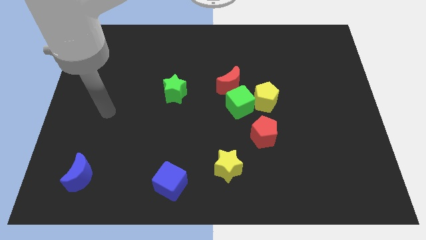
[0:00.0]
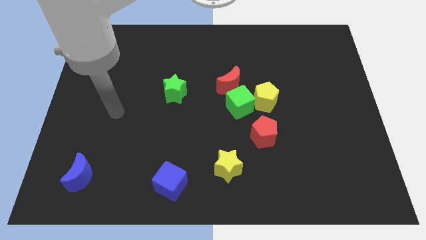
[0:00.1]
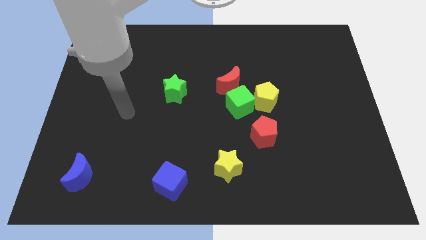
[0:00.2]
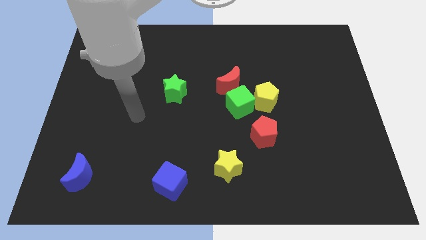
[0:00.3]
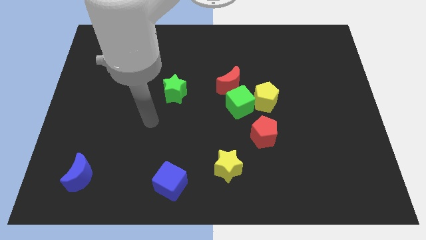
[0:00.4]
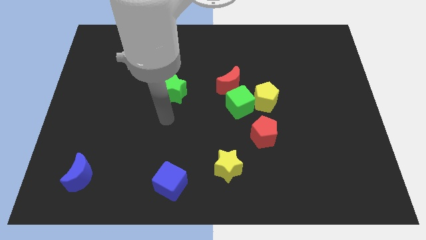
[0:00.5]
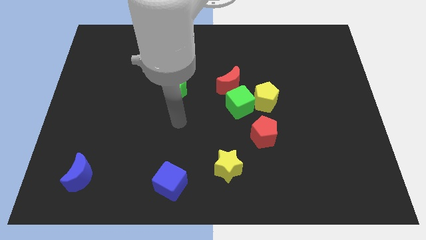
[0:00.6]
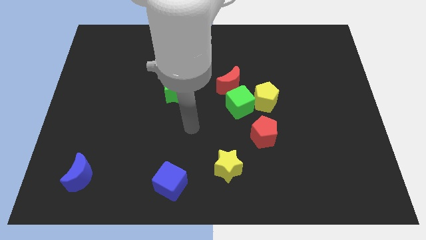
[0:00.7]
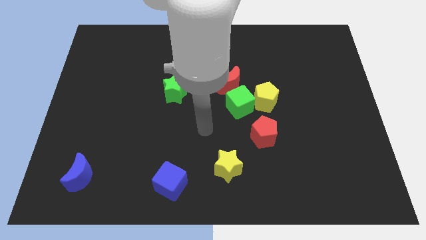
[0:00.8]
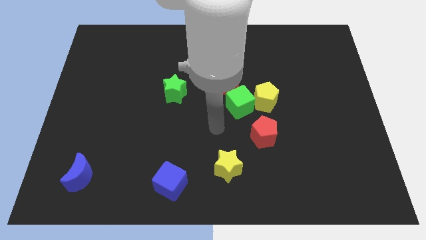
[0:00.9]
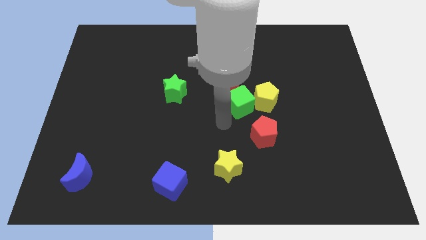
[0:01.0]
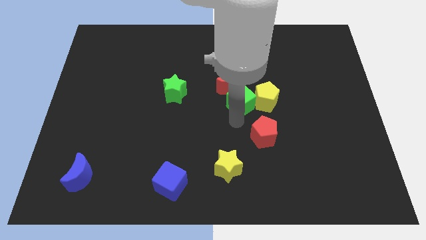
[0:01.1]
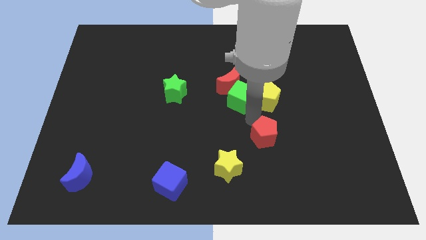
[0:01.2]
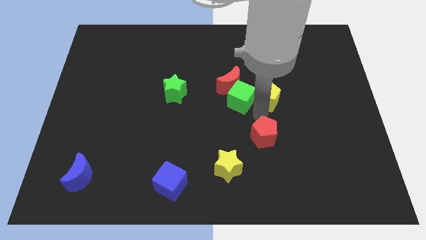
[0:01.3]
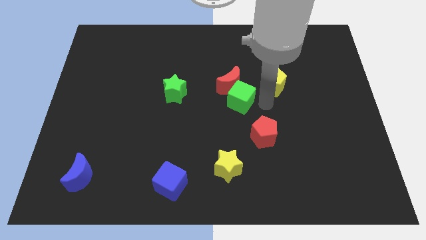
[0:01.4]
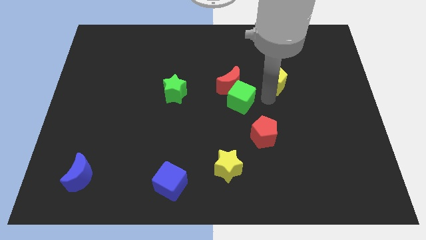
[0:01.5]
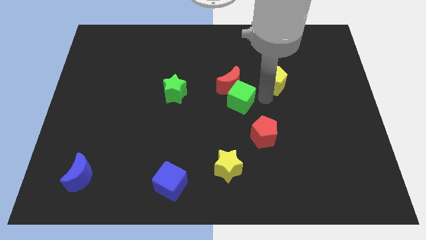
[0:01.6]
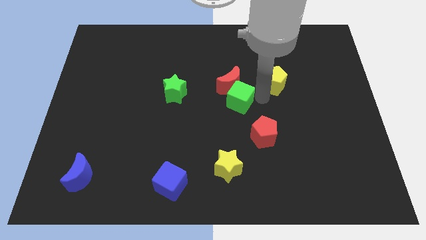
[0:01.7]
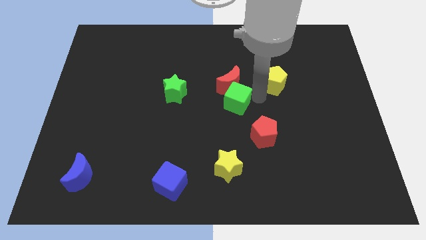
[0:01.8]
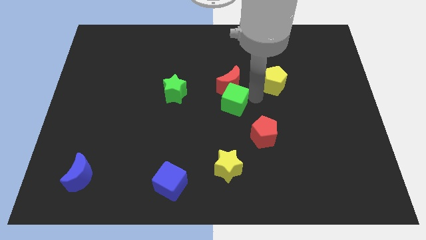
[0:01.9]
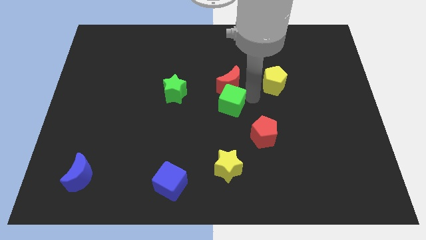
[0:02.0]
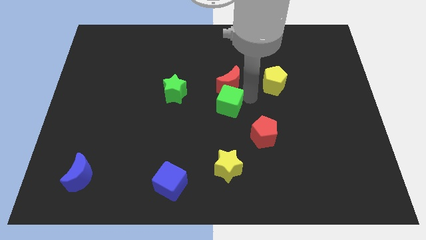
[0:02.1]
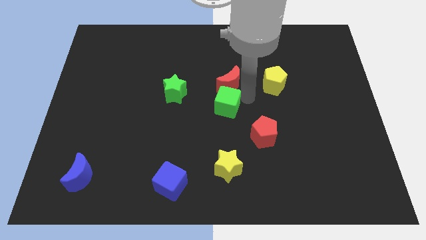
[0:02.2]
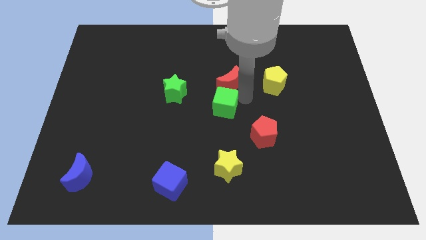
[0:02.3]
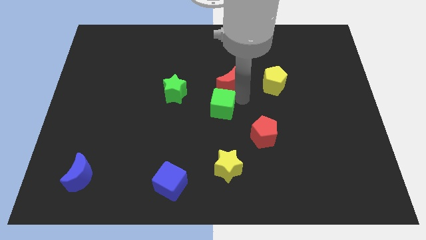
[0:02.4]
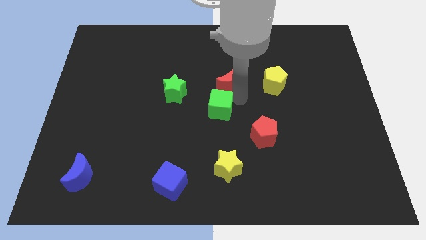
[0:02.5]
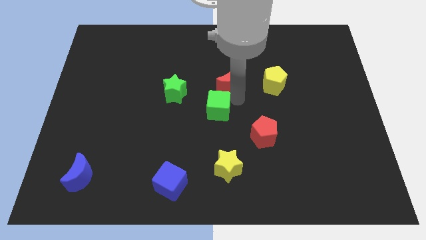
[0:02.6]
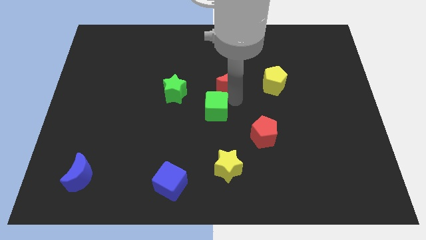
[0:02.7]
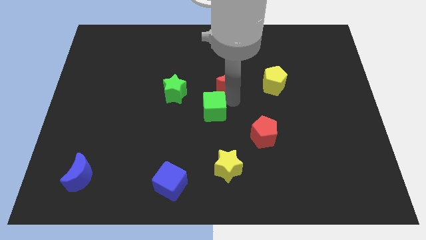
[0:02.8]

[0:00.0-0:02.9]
pull the green cube apart from the yellow pentagon, red moon, and red pentagon

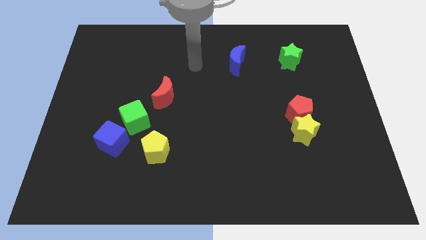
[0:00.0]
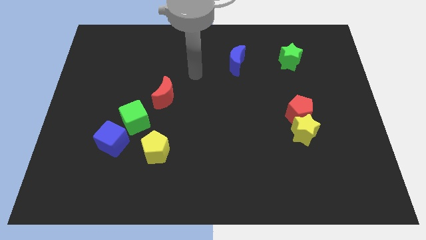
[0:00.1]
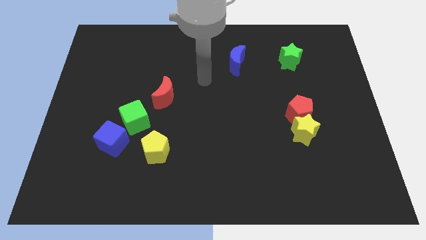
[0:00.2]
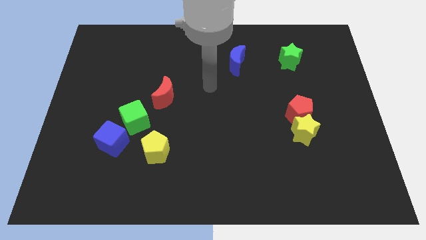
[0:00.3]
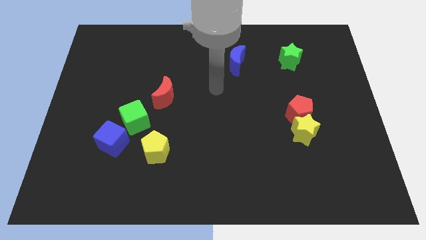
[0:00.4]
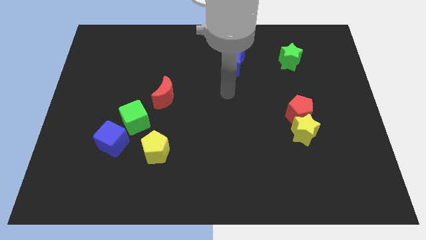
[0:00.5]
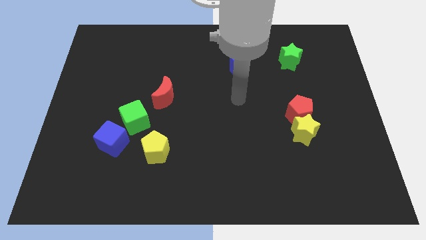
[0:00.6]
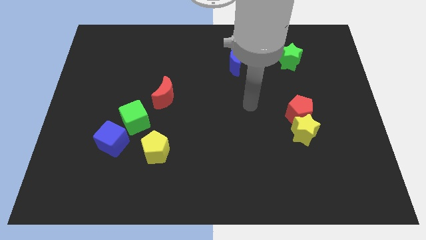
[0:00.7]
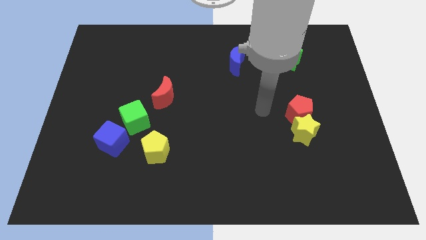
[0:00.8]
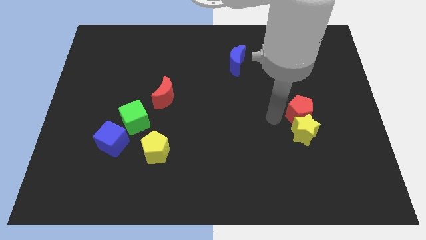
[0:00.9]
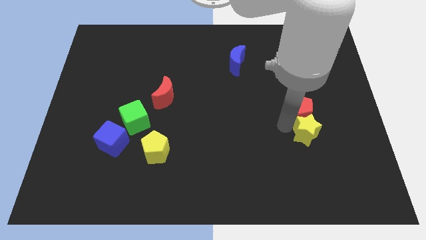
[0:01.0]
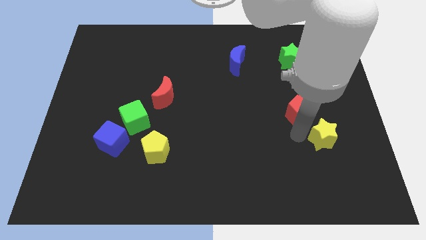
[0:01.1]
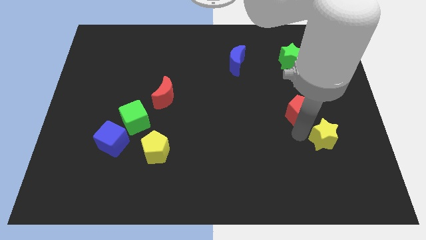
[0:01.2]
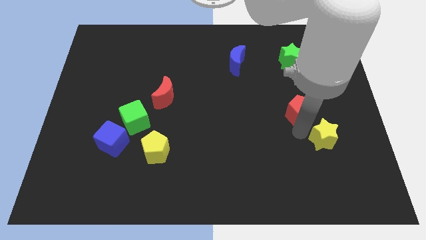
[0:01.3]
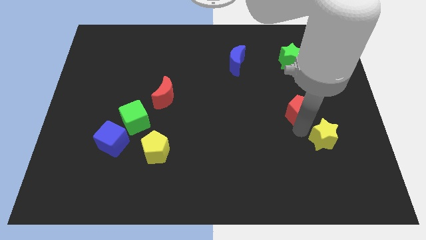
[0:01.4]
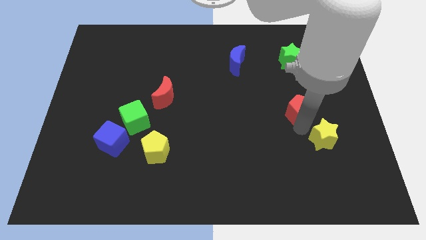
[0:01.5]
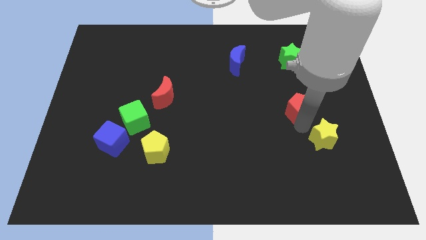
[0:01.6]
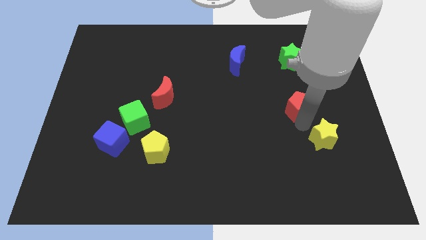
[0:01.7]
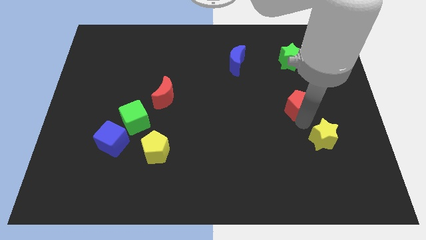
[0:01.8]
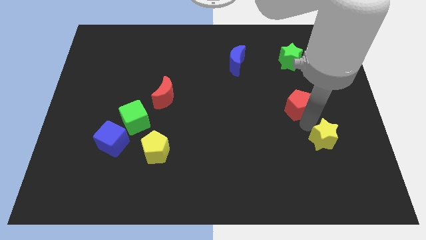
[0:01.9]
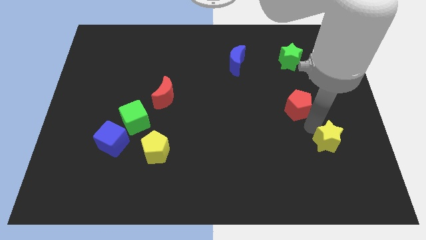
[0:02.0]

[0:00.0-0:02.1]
separate the red pentagon from the yellow star

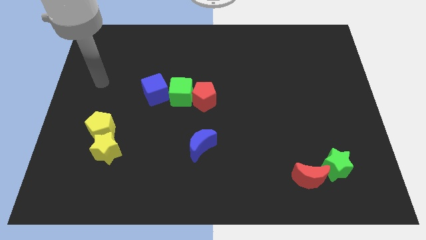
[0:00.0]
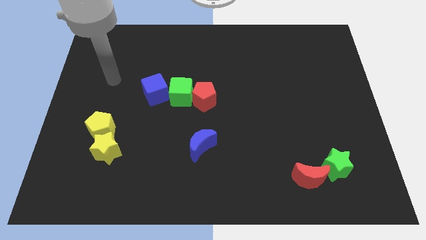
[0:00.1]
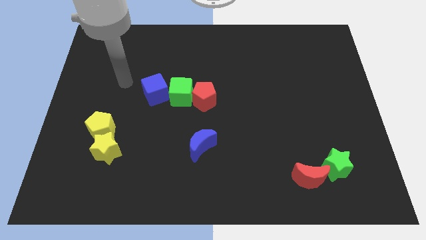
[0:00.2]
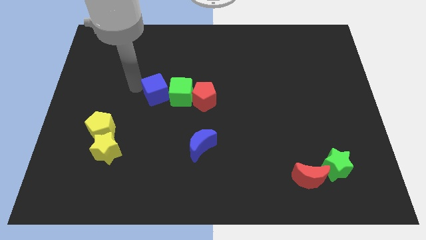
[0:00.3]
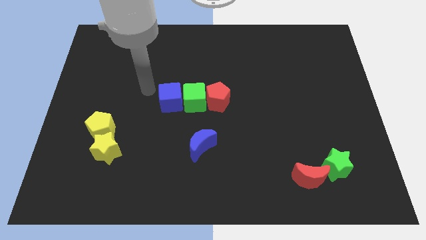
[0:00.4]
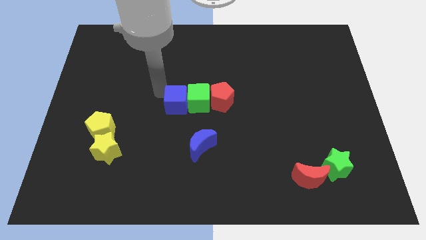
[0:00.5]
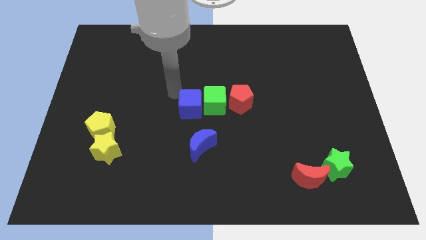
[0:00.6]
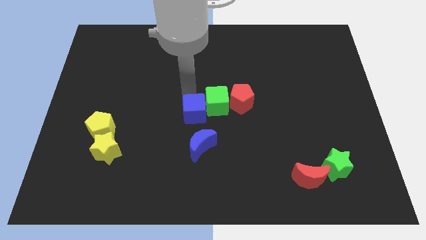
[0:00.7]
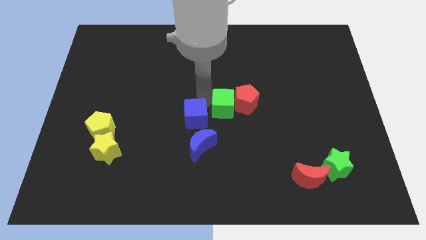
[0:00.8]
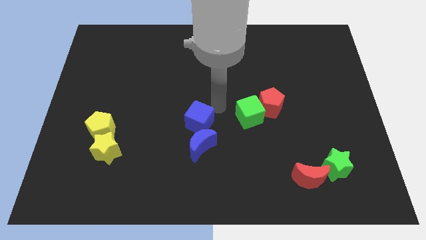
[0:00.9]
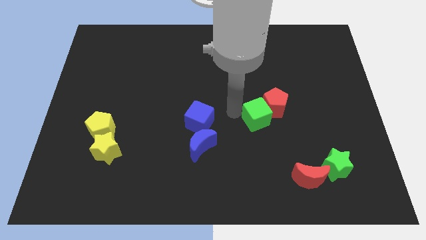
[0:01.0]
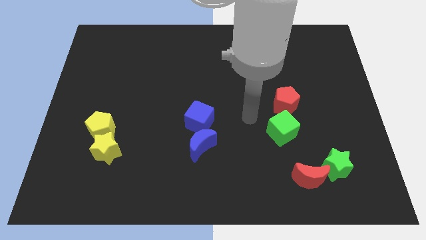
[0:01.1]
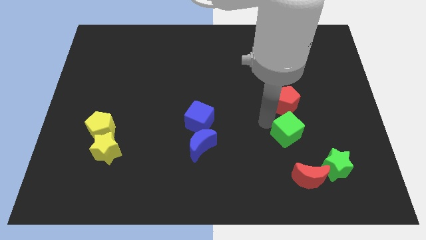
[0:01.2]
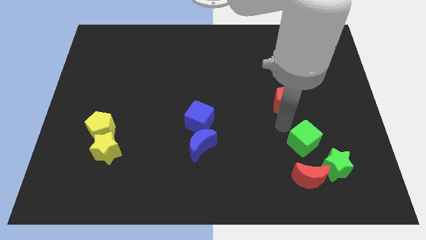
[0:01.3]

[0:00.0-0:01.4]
separate the red pentagon from the green cube

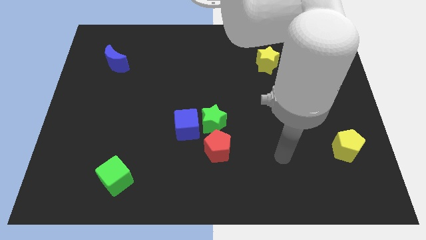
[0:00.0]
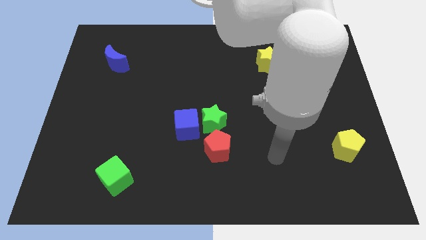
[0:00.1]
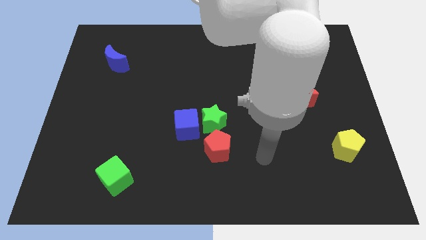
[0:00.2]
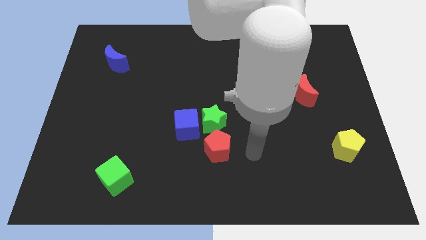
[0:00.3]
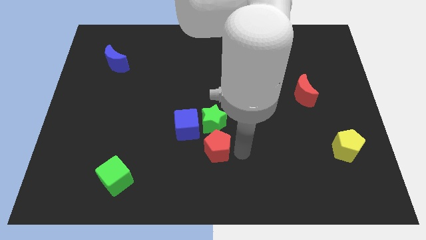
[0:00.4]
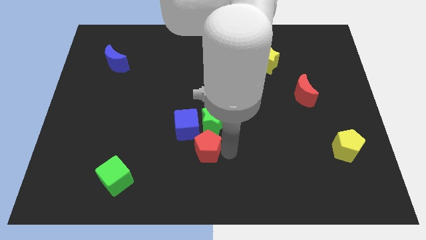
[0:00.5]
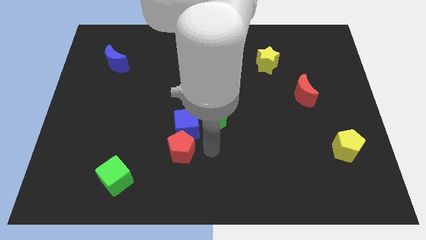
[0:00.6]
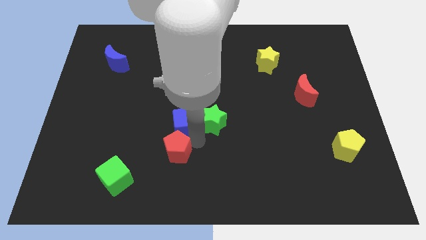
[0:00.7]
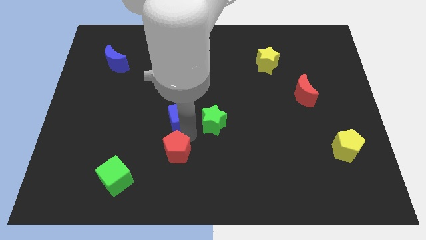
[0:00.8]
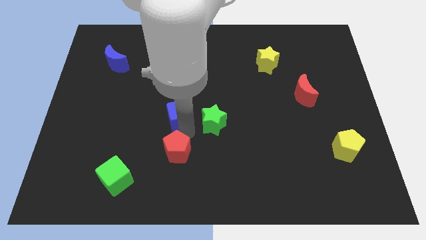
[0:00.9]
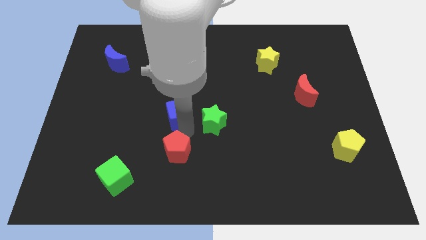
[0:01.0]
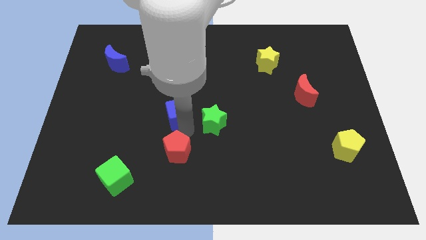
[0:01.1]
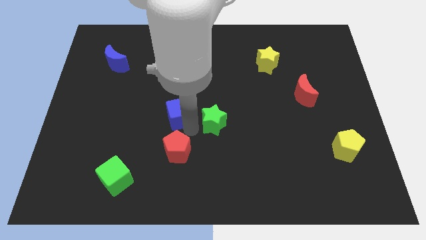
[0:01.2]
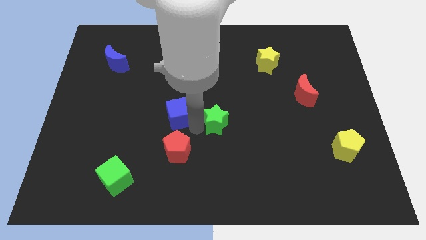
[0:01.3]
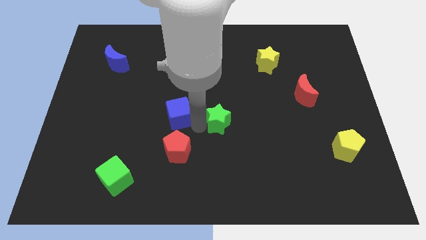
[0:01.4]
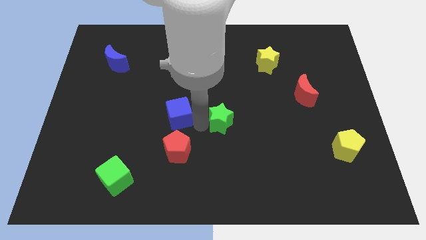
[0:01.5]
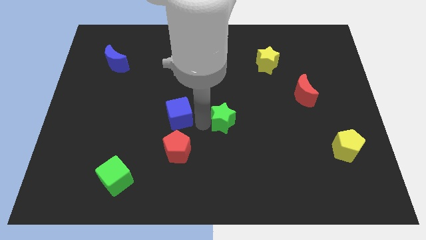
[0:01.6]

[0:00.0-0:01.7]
separate the green star from the blue cube and red pentagon

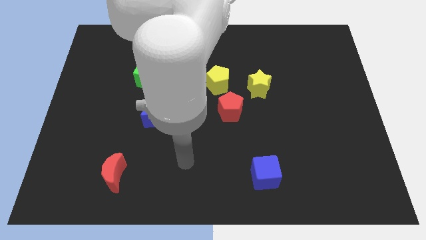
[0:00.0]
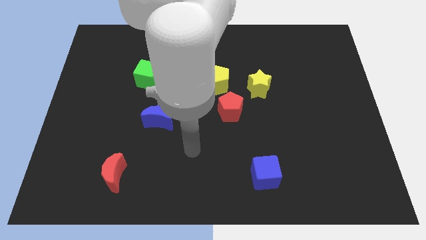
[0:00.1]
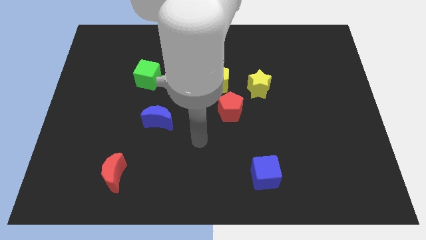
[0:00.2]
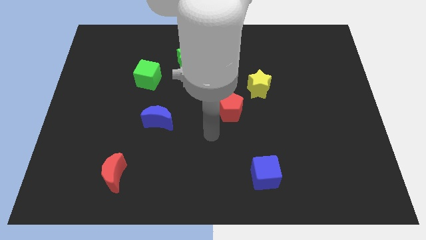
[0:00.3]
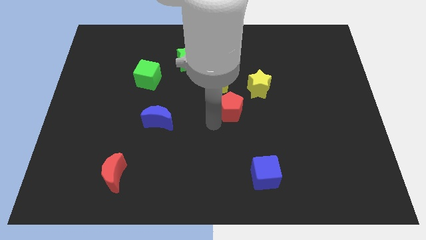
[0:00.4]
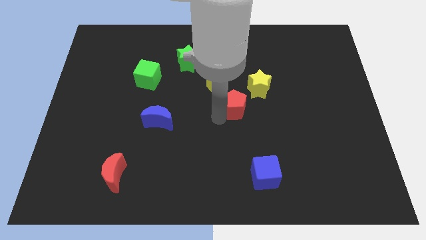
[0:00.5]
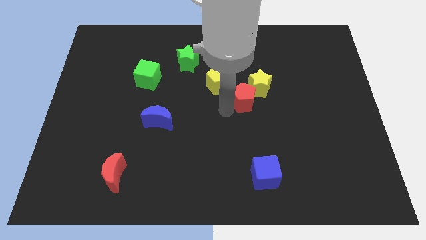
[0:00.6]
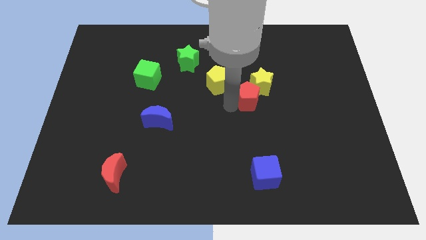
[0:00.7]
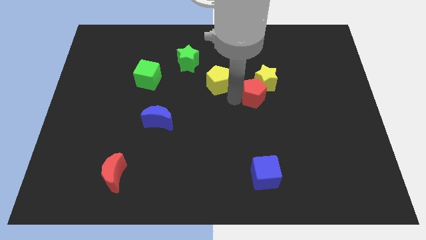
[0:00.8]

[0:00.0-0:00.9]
move the yellow pentagon away from the red pentagon and yellow star

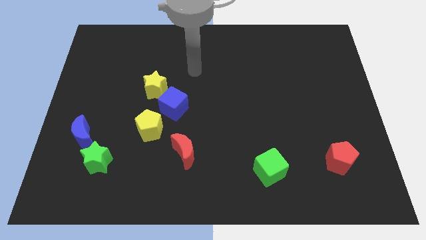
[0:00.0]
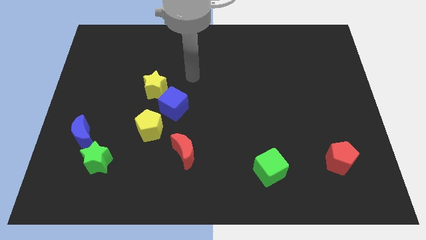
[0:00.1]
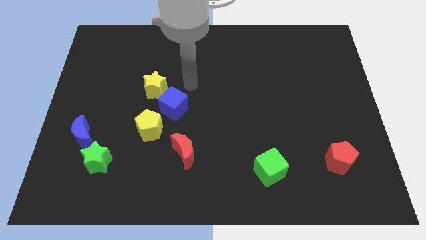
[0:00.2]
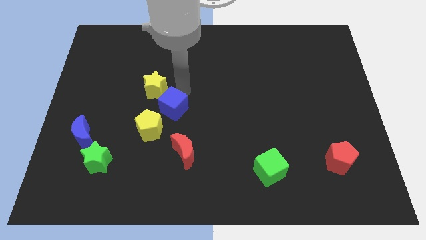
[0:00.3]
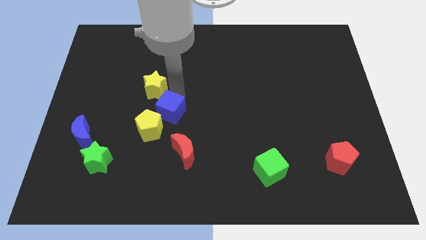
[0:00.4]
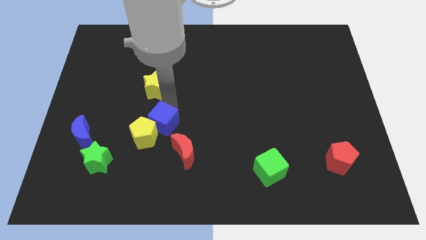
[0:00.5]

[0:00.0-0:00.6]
move the yellow star away from the blue cube
